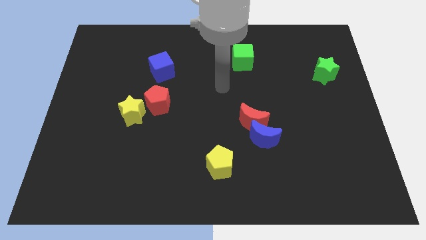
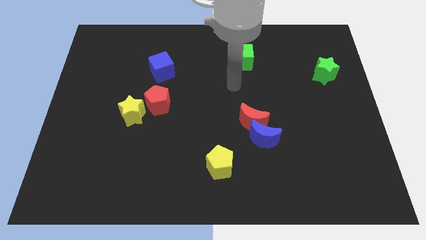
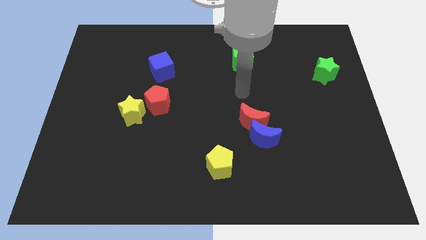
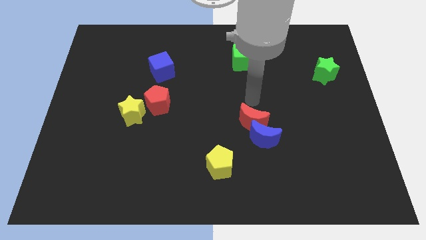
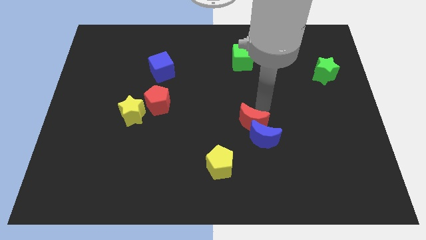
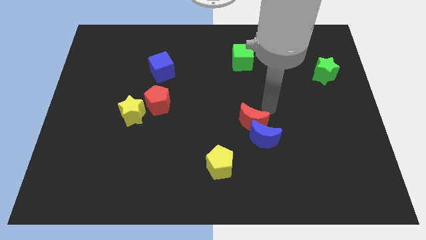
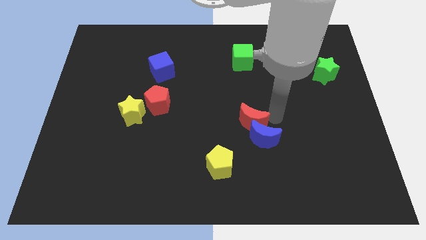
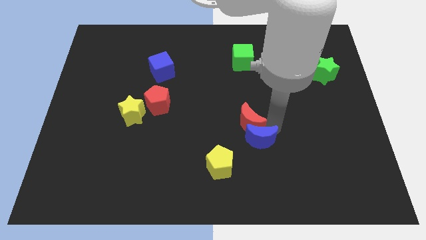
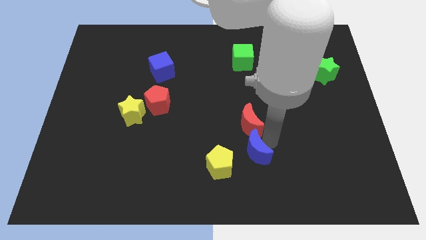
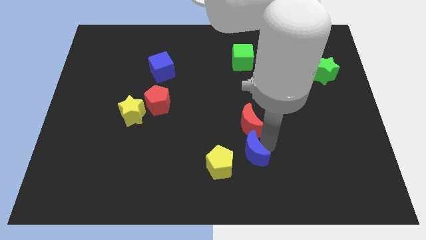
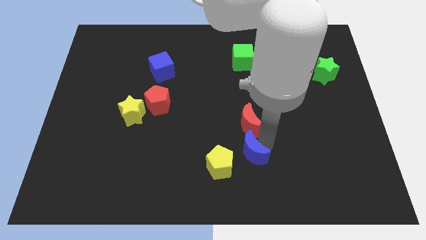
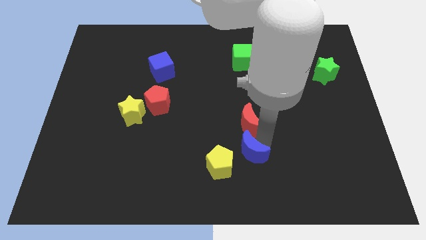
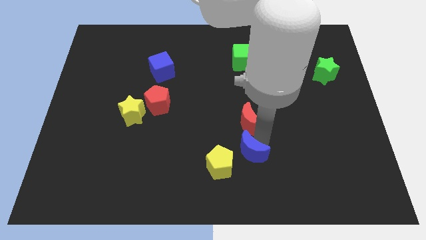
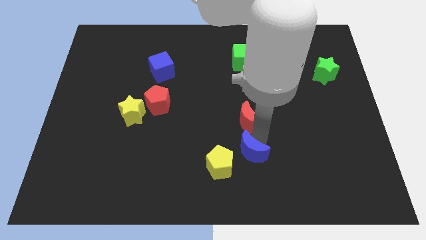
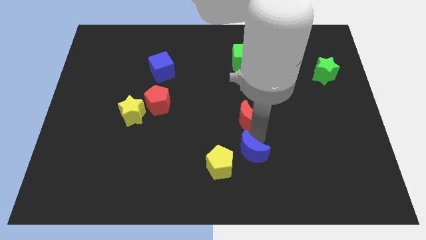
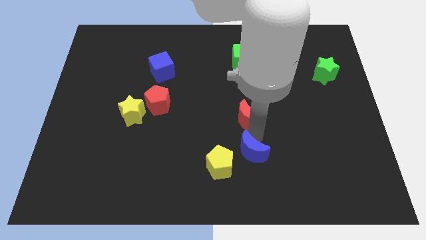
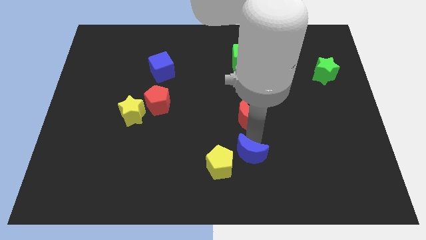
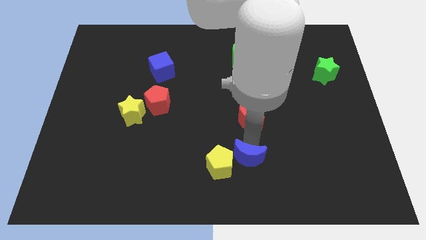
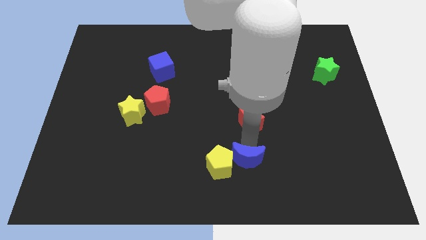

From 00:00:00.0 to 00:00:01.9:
pull the red moon apart from the blue moon

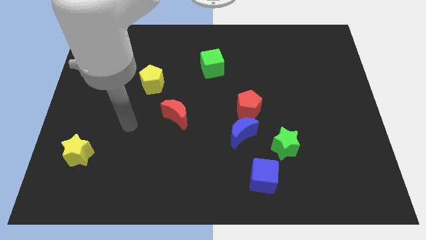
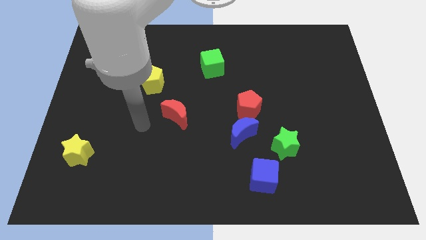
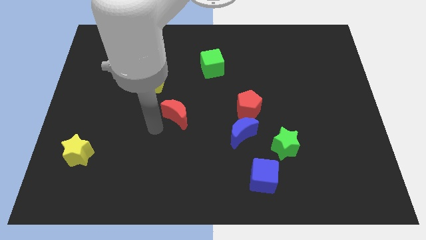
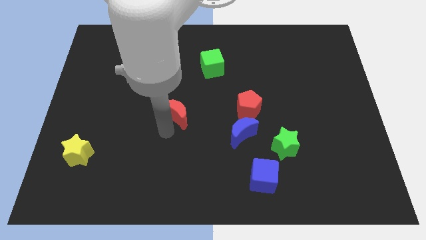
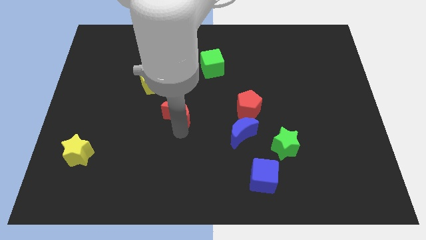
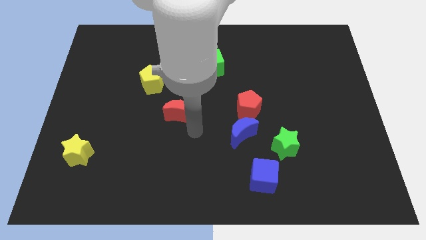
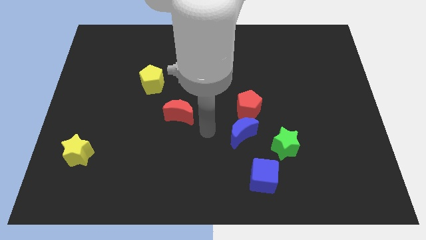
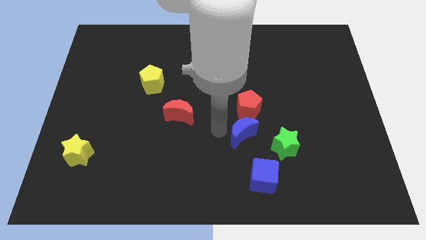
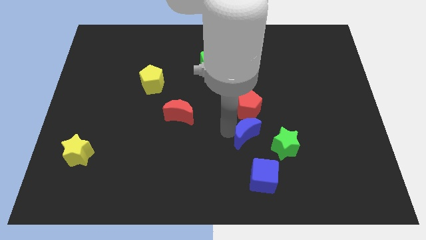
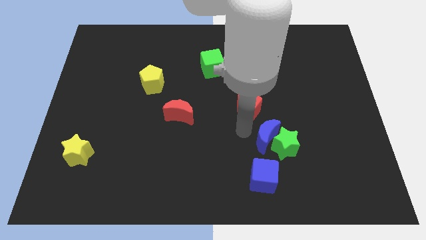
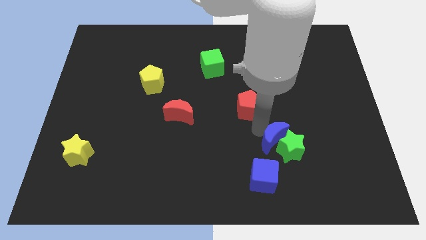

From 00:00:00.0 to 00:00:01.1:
separate the red pentagon from the blue moon

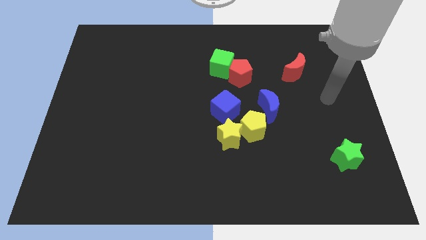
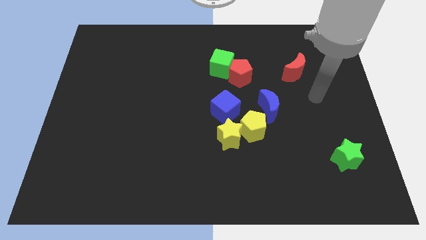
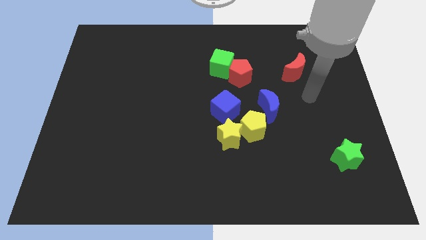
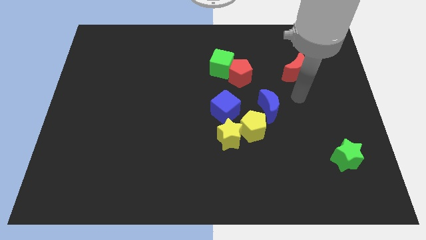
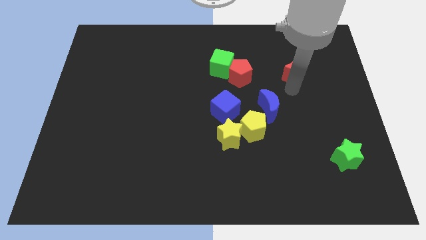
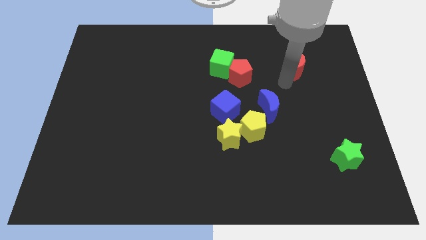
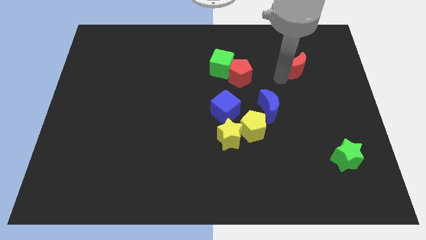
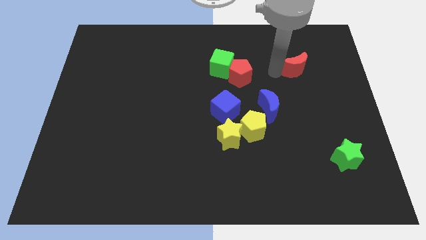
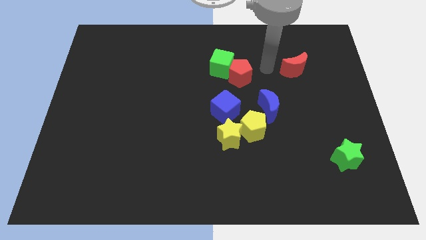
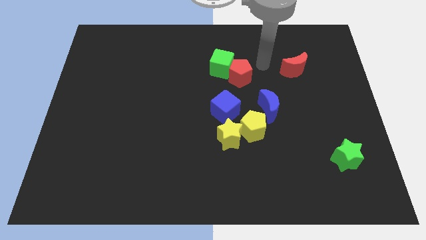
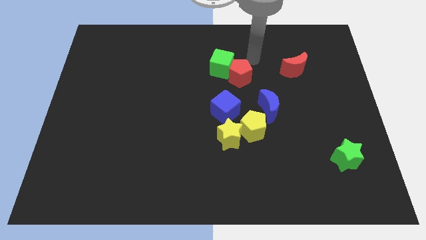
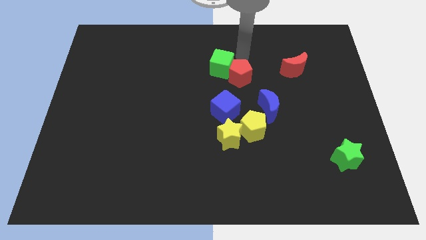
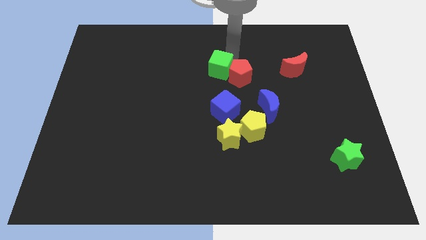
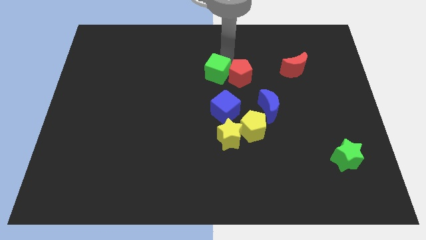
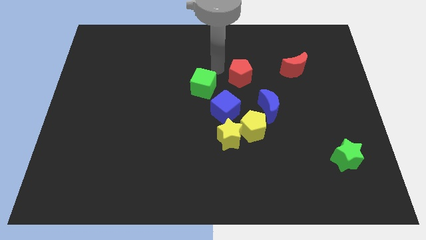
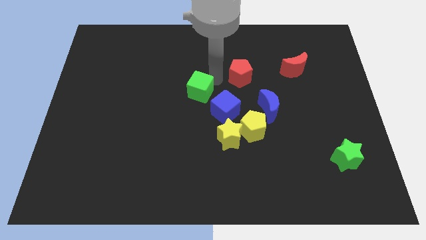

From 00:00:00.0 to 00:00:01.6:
move the red pentagon away from the green cube

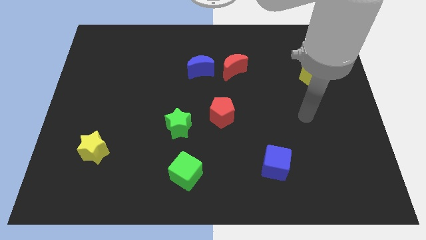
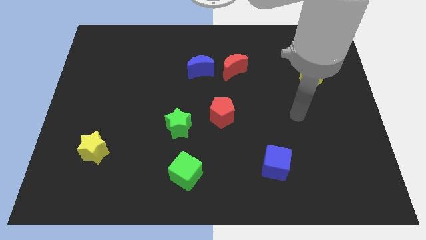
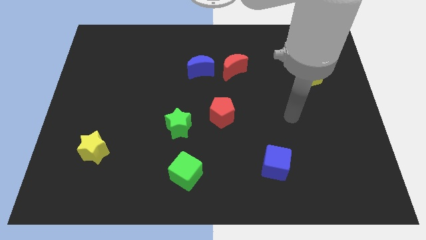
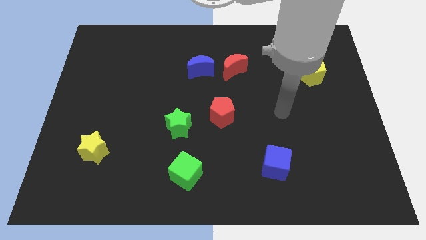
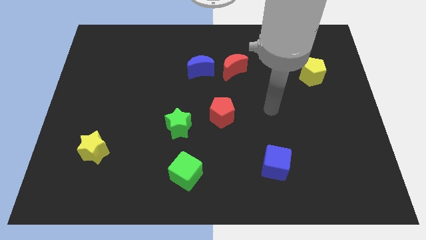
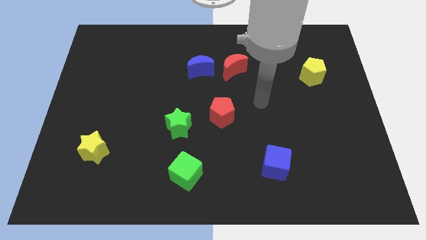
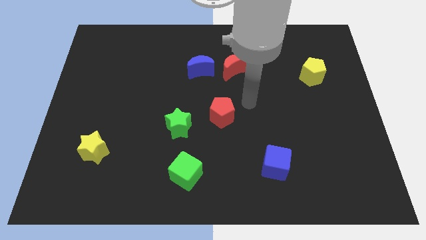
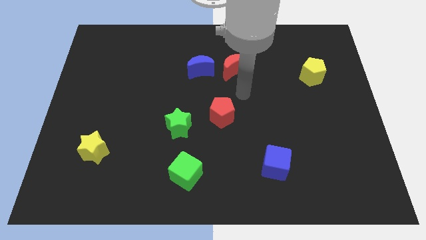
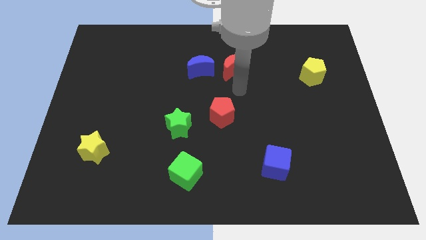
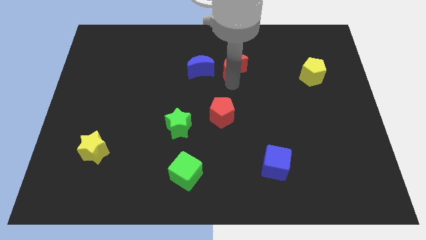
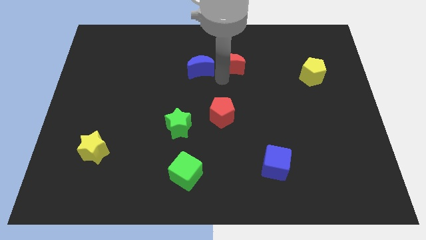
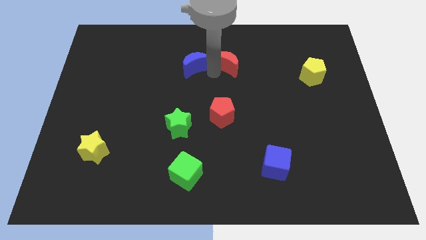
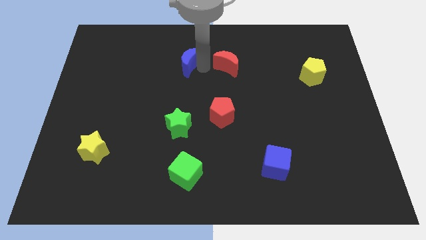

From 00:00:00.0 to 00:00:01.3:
separate the red moon from the blue moon

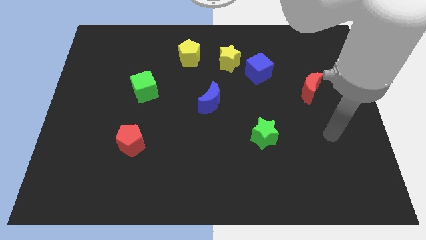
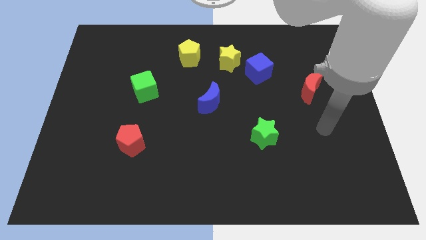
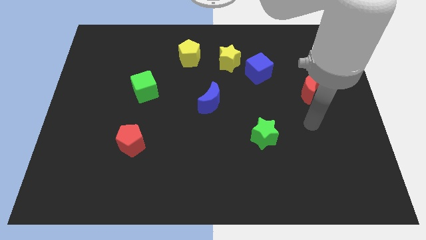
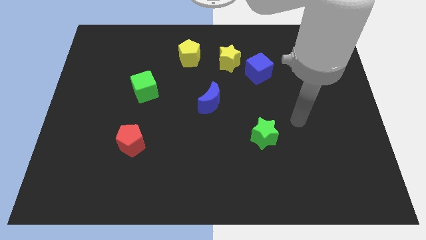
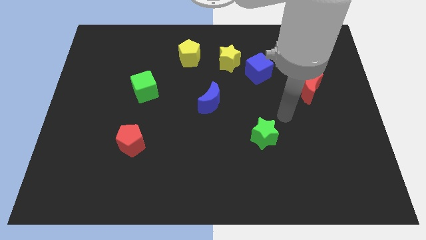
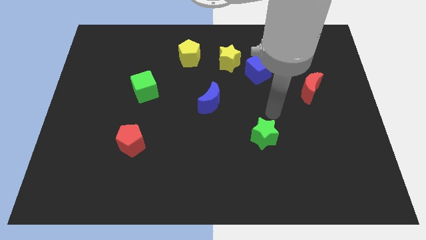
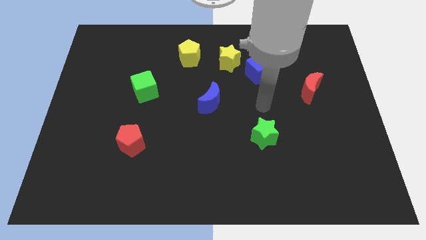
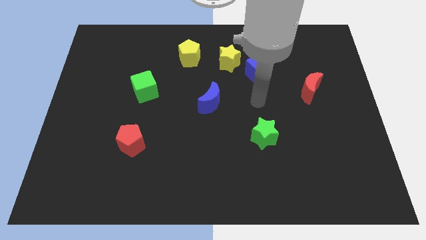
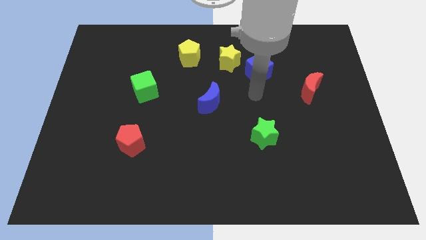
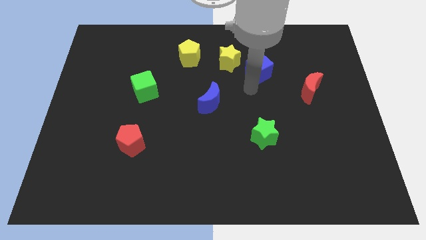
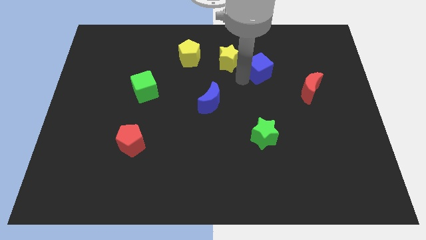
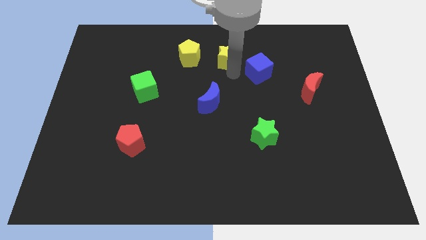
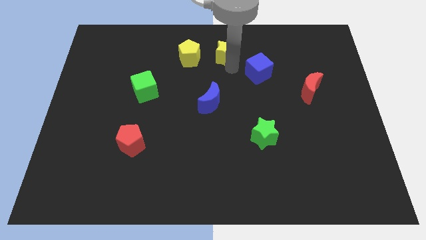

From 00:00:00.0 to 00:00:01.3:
pull the blue cube apart from the yellow star

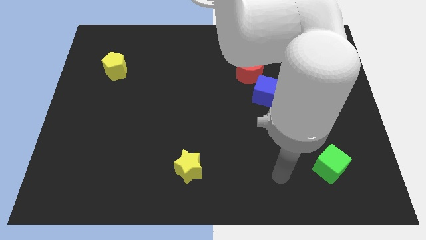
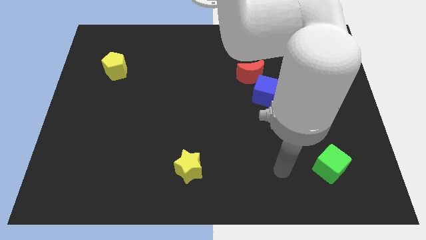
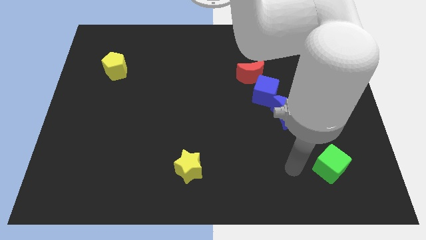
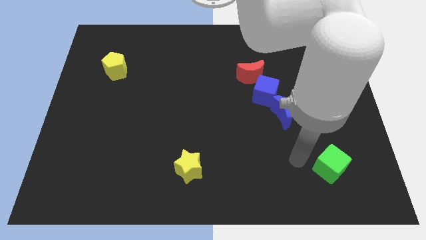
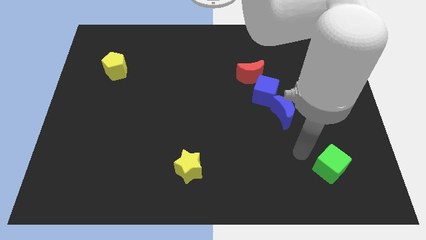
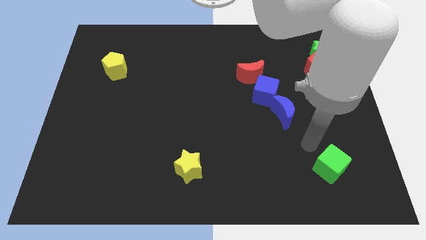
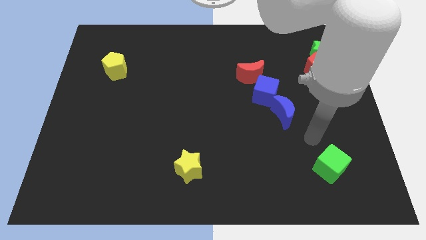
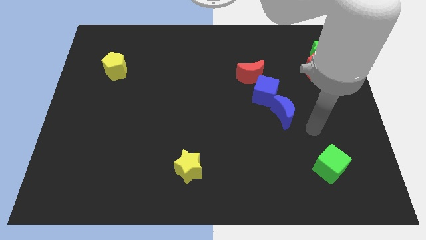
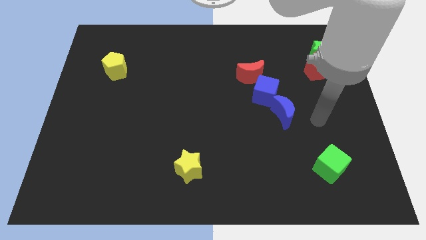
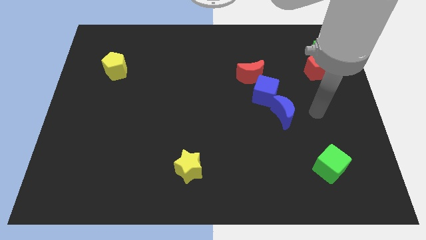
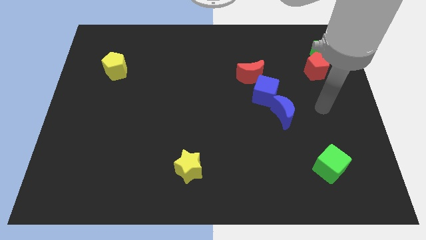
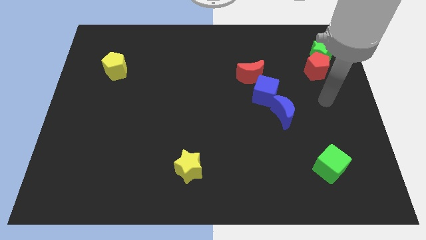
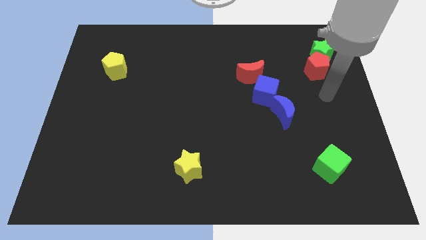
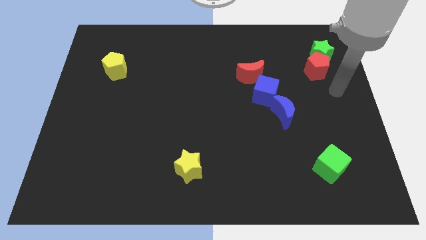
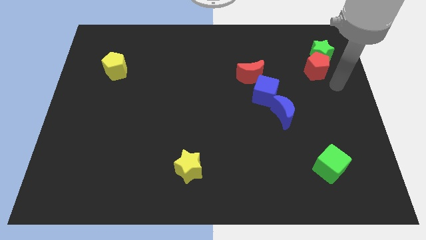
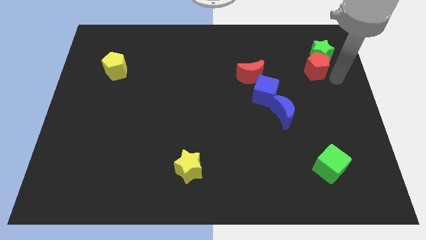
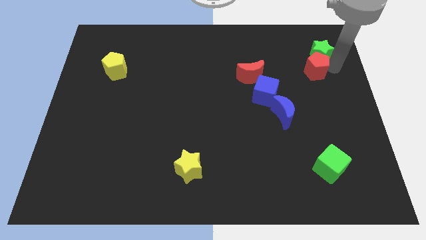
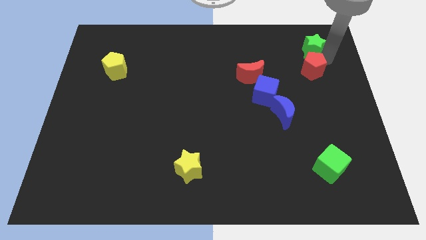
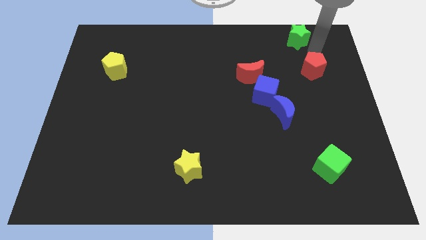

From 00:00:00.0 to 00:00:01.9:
separate the red pentagon from the green star

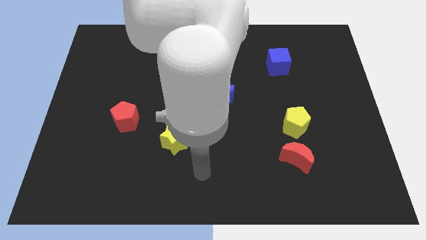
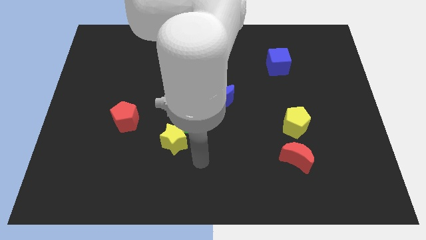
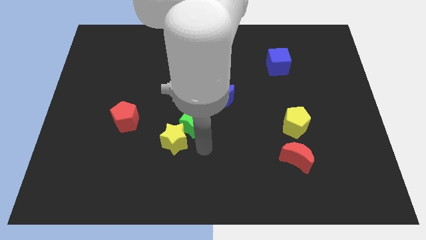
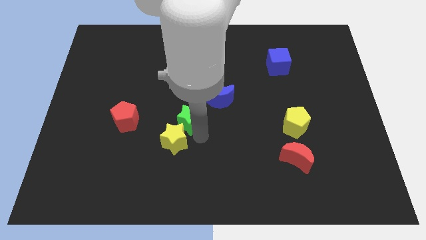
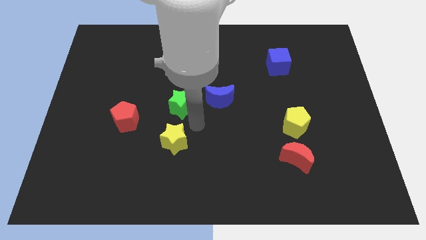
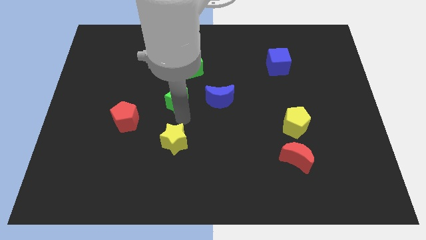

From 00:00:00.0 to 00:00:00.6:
move the yellow star away from the green star
